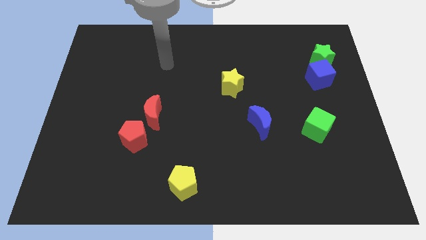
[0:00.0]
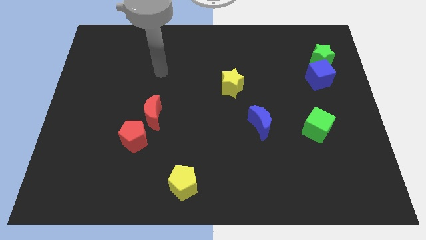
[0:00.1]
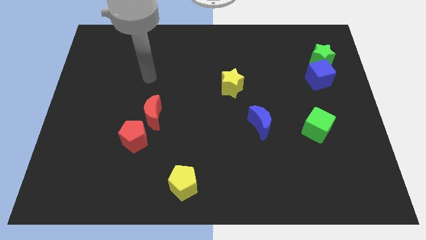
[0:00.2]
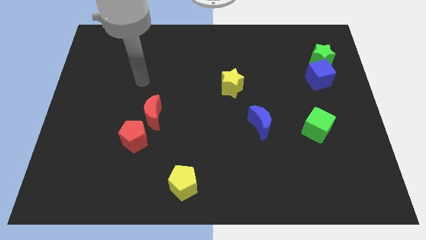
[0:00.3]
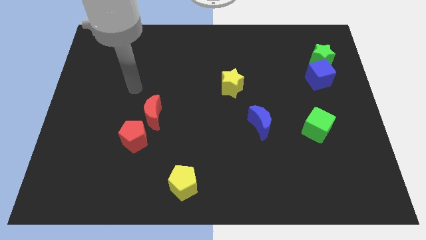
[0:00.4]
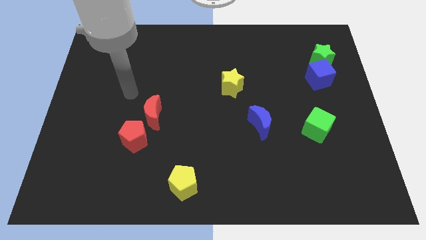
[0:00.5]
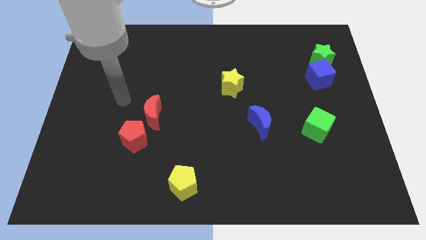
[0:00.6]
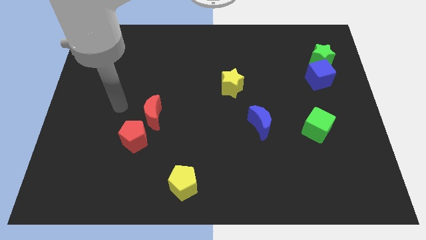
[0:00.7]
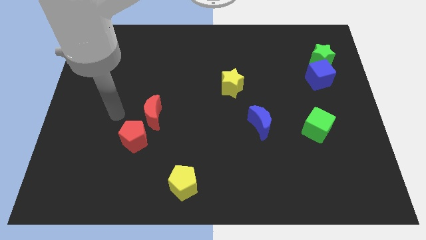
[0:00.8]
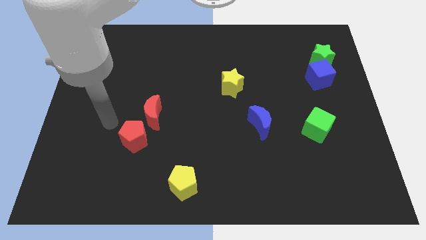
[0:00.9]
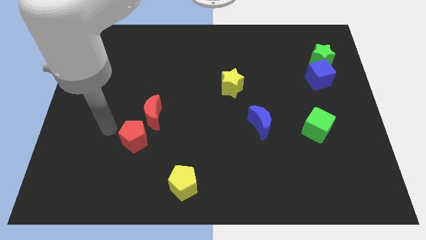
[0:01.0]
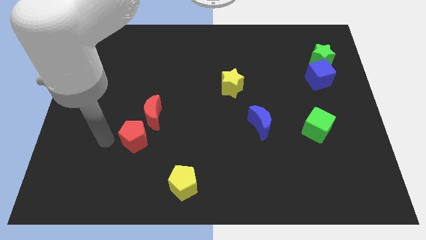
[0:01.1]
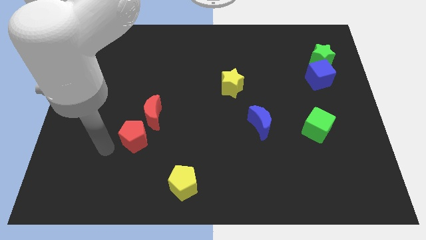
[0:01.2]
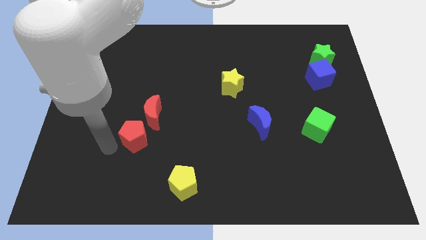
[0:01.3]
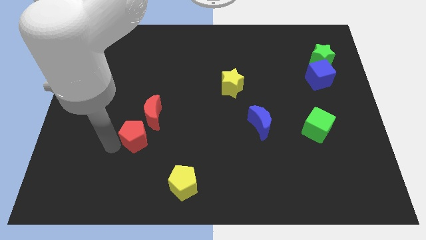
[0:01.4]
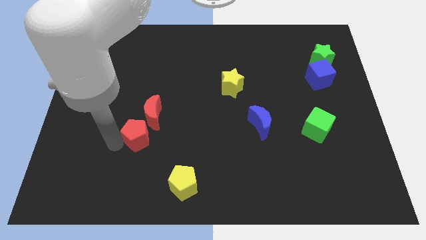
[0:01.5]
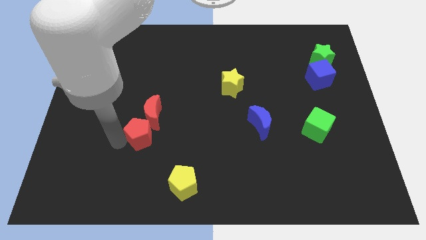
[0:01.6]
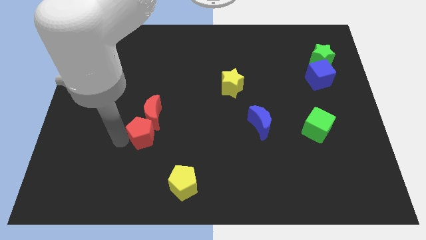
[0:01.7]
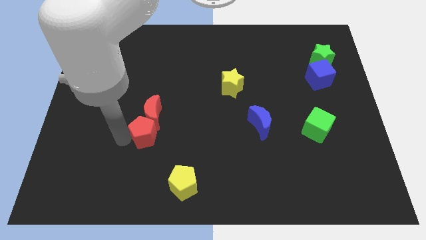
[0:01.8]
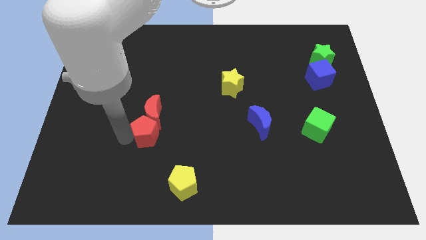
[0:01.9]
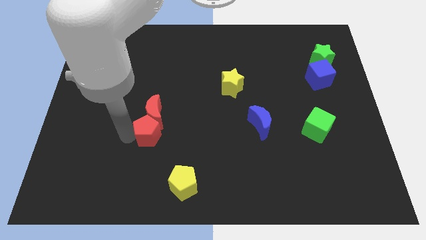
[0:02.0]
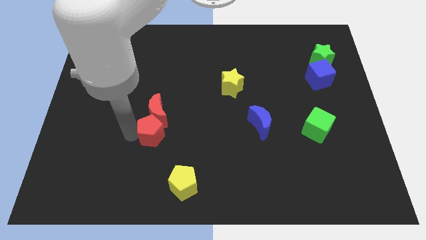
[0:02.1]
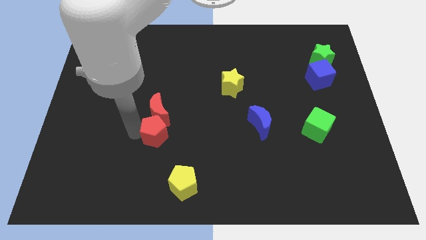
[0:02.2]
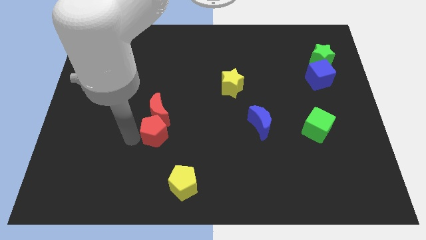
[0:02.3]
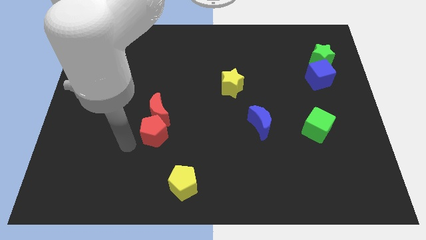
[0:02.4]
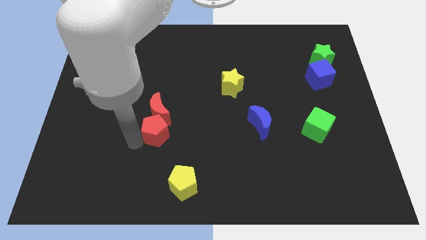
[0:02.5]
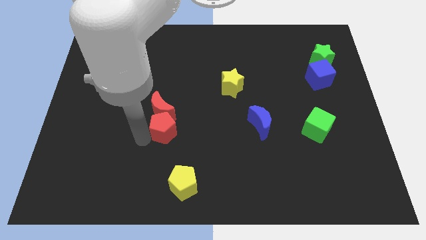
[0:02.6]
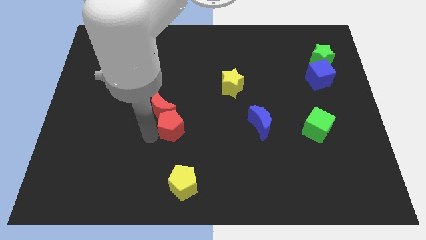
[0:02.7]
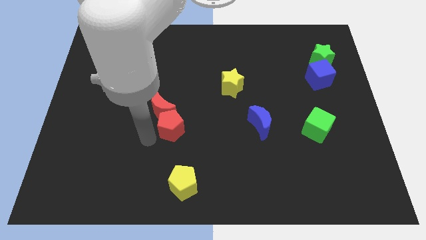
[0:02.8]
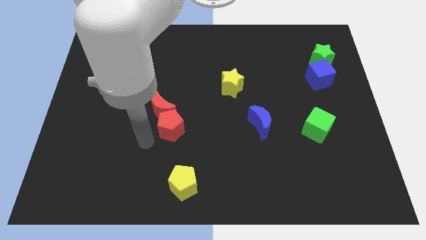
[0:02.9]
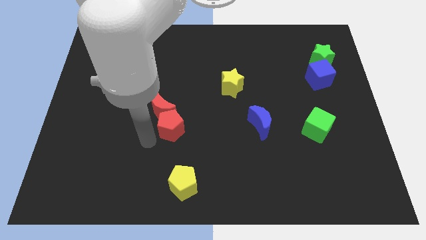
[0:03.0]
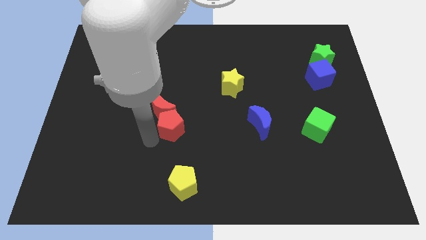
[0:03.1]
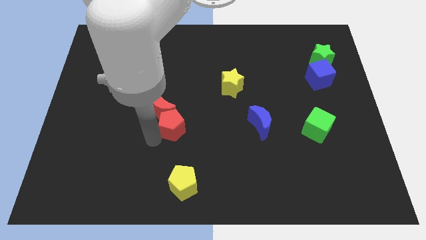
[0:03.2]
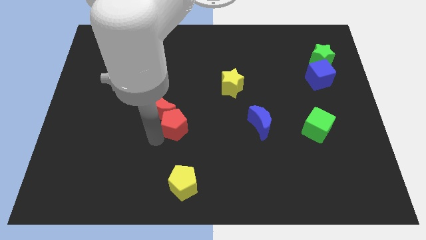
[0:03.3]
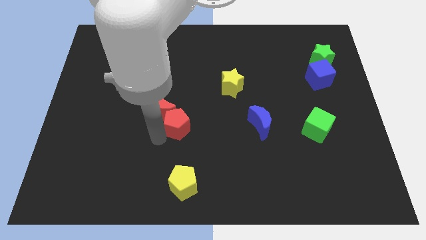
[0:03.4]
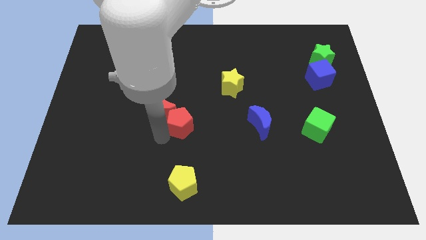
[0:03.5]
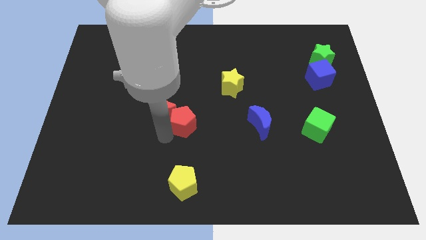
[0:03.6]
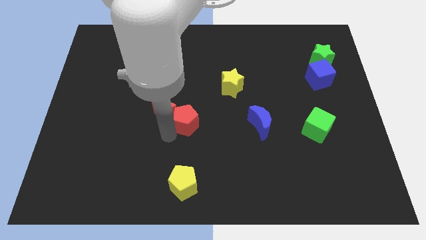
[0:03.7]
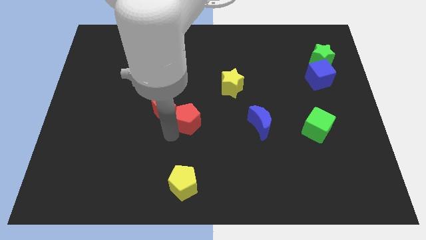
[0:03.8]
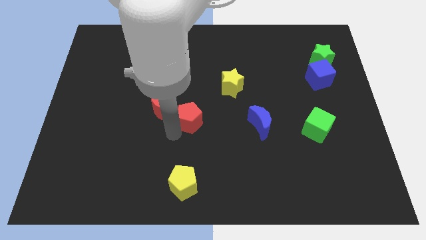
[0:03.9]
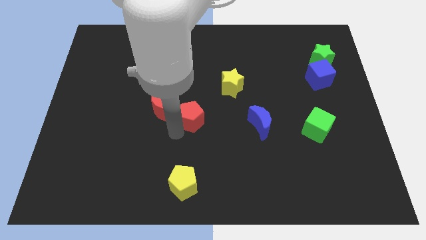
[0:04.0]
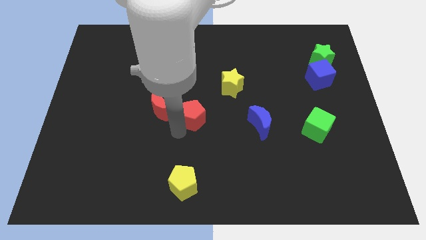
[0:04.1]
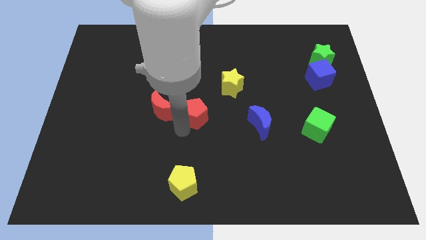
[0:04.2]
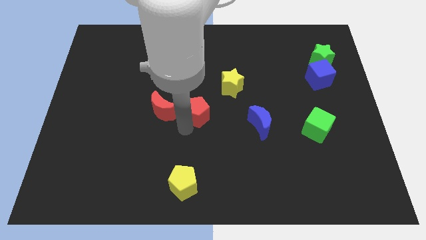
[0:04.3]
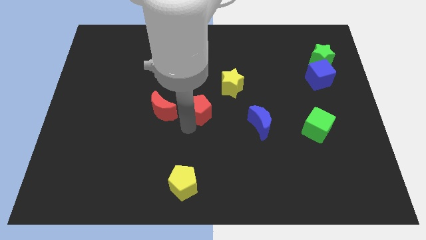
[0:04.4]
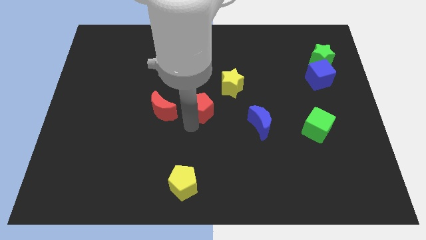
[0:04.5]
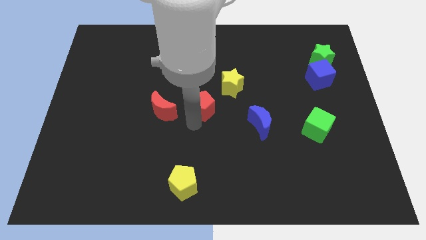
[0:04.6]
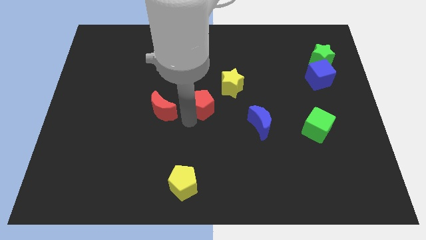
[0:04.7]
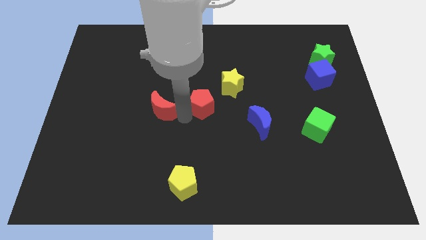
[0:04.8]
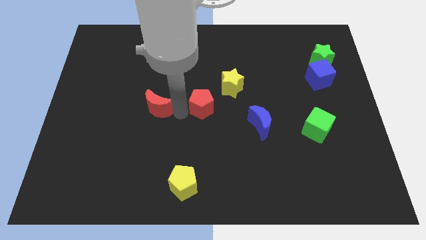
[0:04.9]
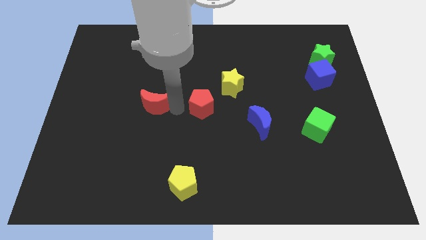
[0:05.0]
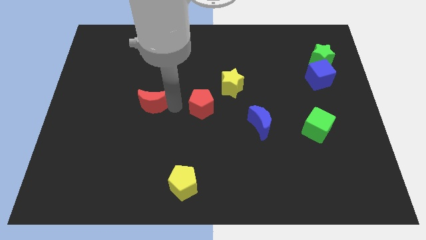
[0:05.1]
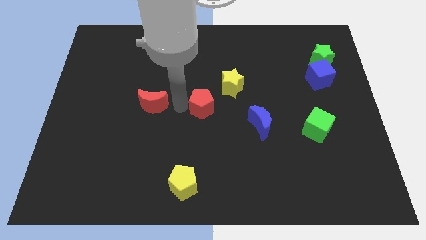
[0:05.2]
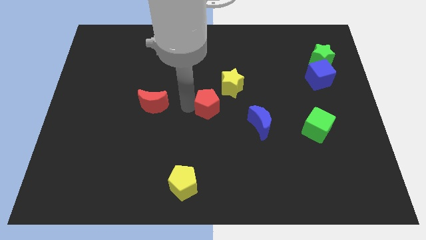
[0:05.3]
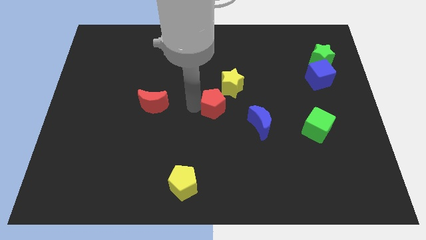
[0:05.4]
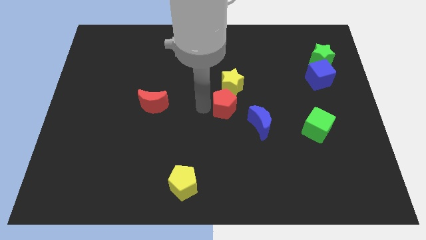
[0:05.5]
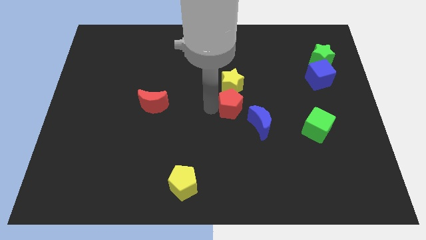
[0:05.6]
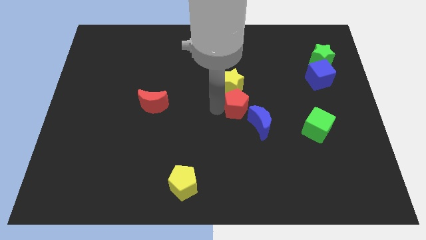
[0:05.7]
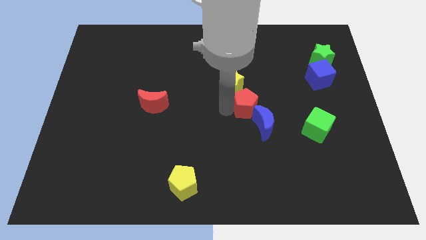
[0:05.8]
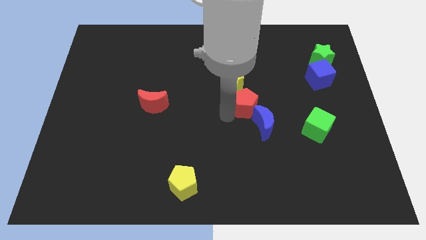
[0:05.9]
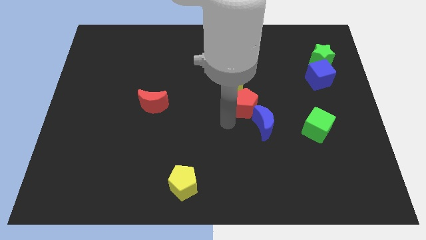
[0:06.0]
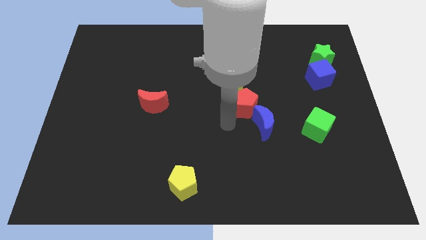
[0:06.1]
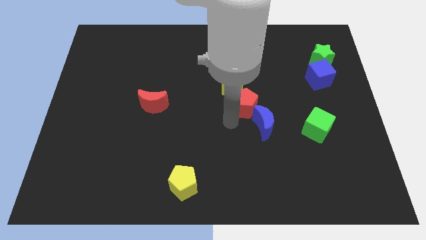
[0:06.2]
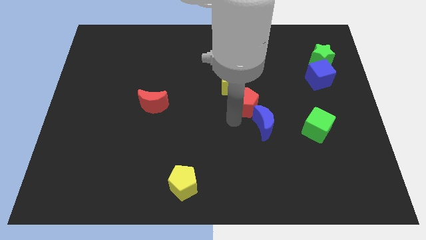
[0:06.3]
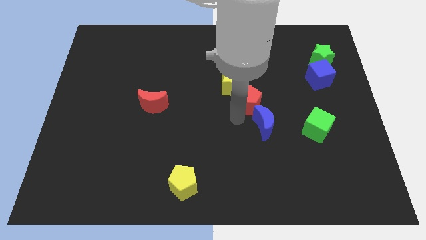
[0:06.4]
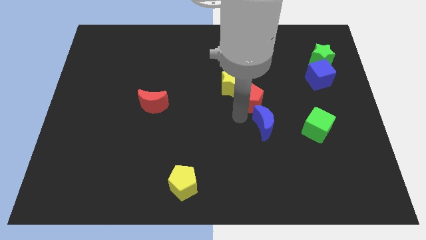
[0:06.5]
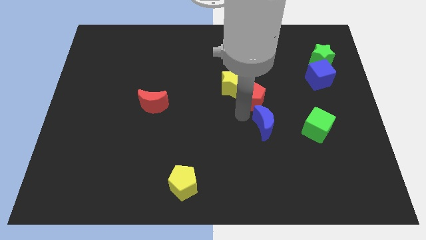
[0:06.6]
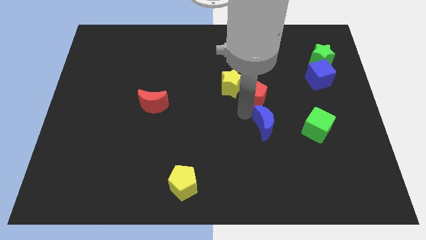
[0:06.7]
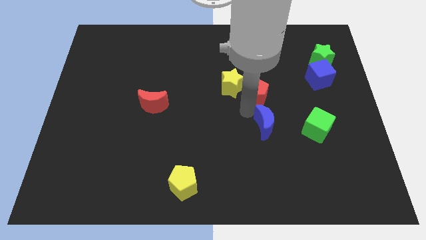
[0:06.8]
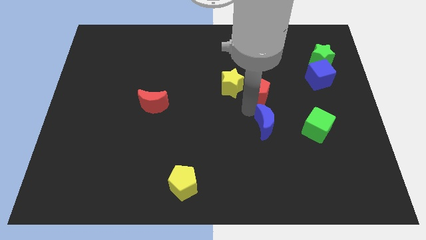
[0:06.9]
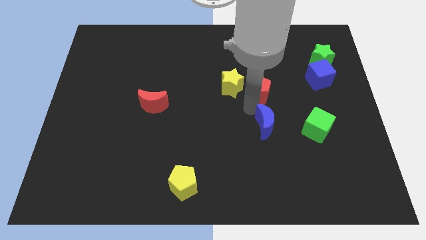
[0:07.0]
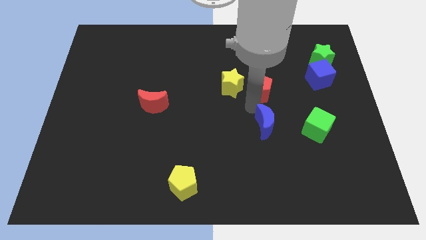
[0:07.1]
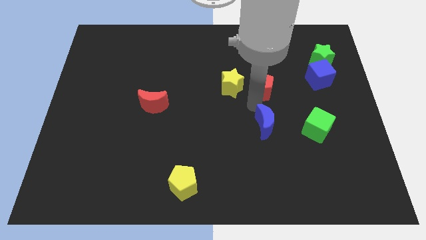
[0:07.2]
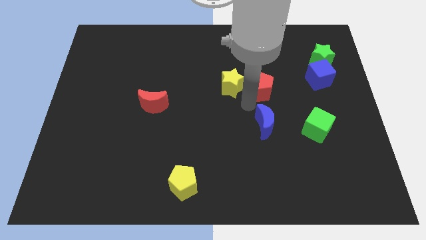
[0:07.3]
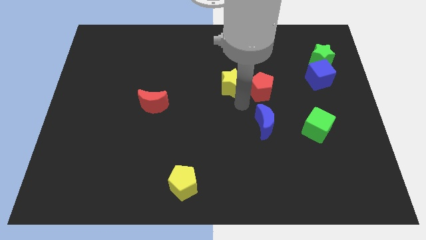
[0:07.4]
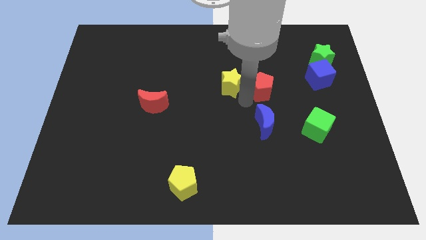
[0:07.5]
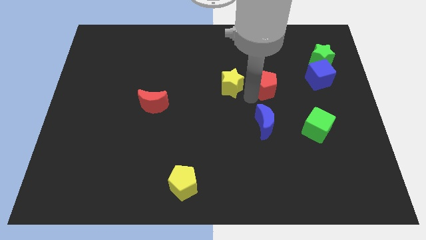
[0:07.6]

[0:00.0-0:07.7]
slide the red pentagon just left of the blue cube

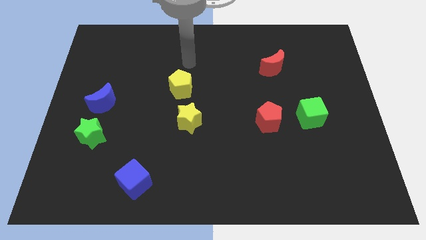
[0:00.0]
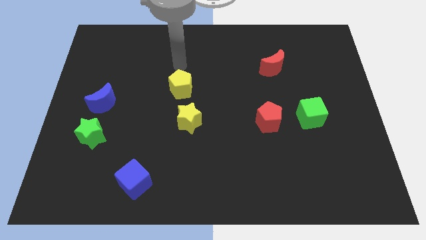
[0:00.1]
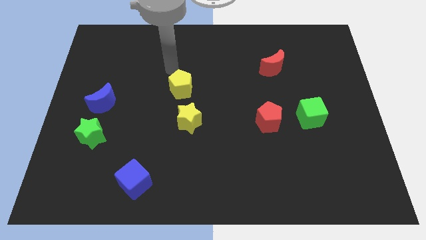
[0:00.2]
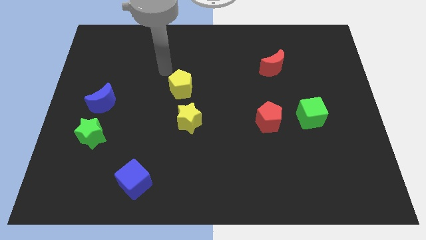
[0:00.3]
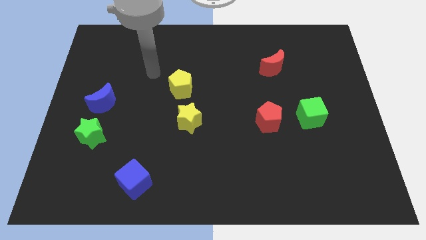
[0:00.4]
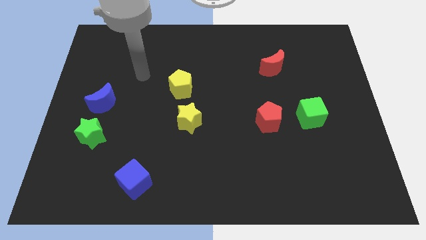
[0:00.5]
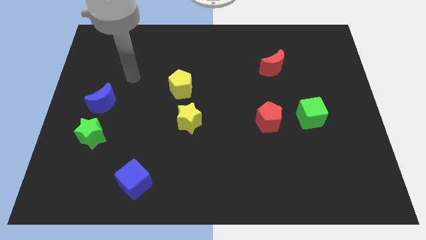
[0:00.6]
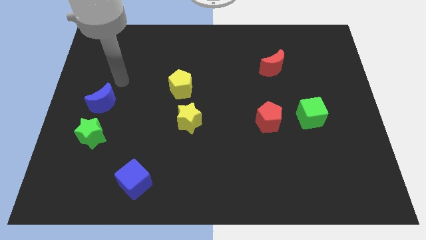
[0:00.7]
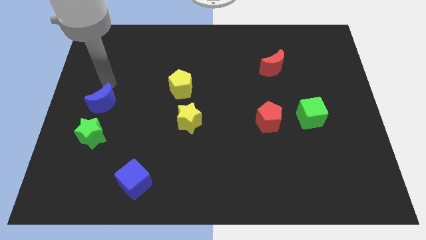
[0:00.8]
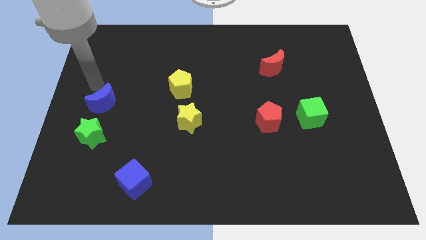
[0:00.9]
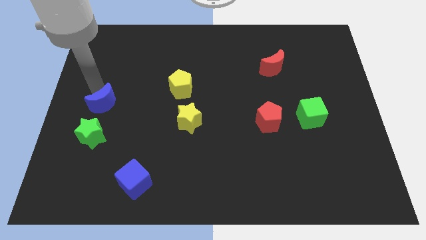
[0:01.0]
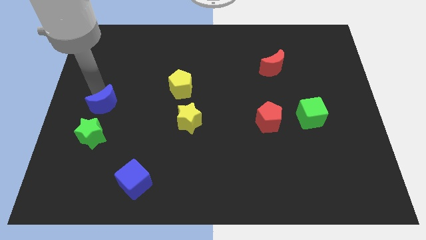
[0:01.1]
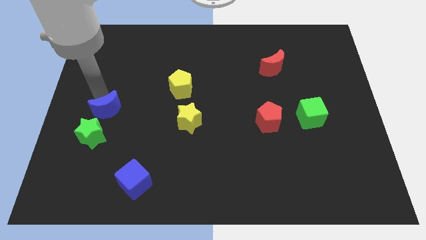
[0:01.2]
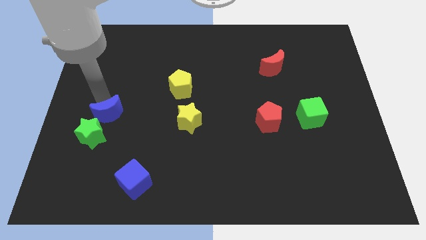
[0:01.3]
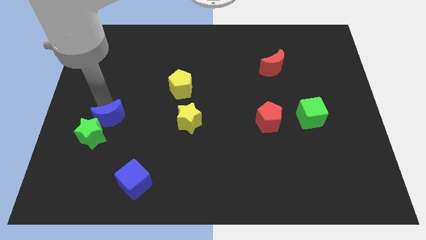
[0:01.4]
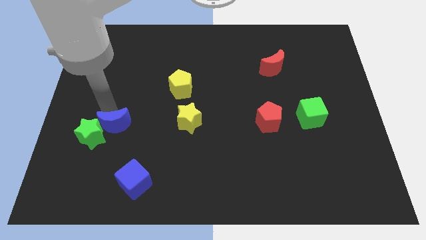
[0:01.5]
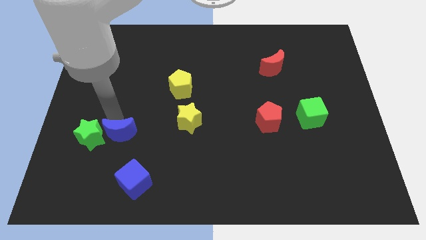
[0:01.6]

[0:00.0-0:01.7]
move the blue moon diagonally down and to the right of the green star
